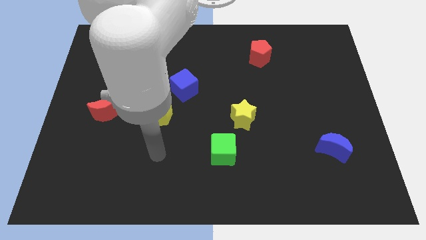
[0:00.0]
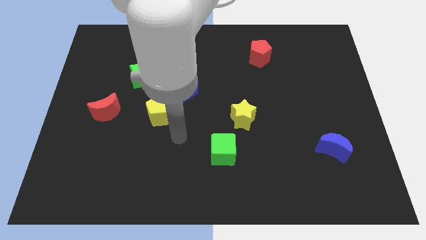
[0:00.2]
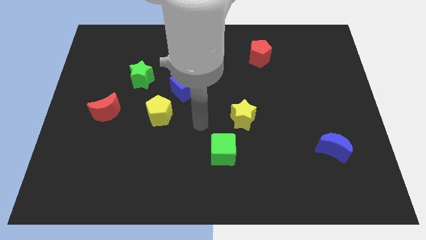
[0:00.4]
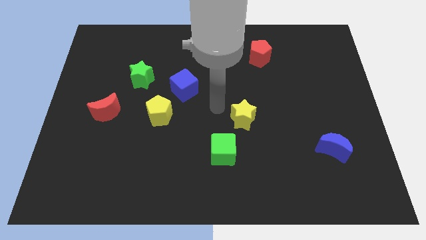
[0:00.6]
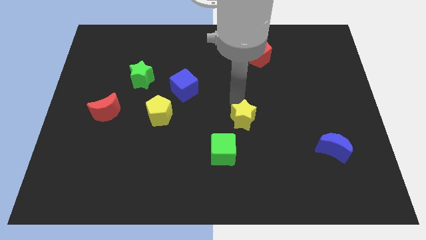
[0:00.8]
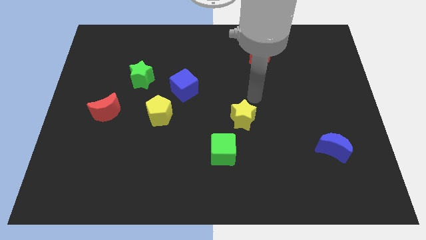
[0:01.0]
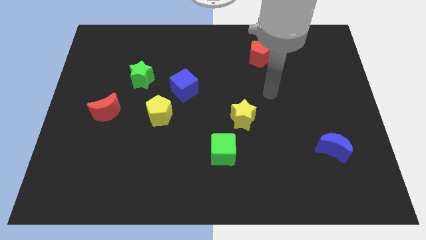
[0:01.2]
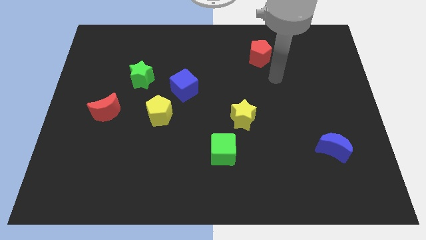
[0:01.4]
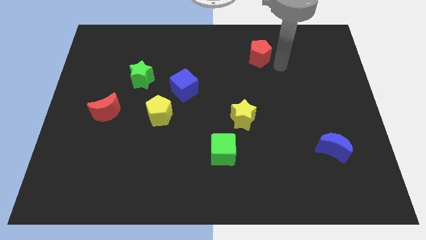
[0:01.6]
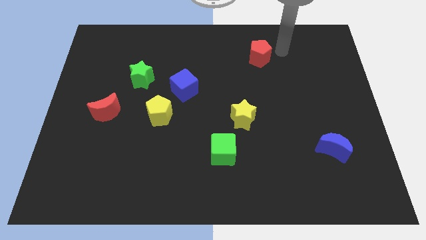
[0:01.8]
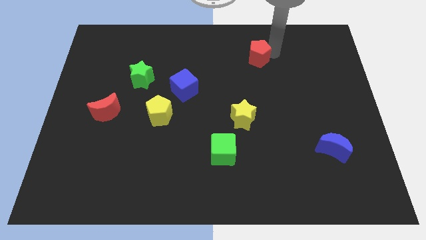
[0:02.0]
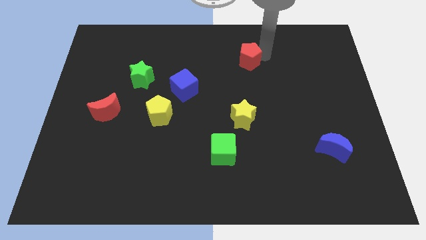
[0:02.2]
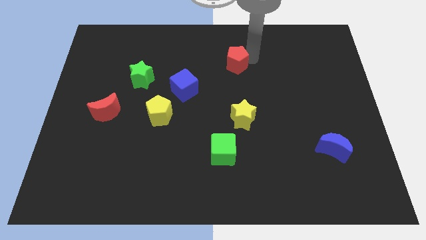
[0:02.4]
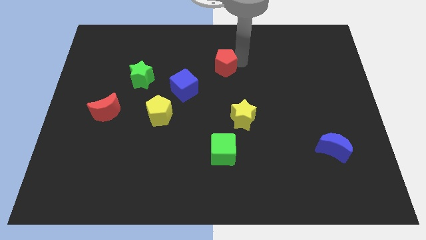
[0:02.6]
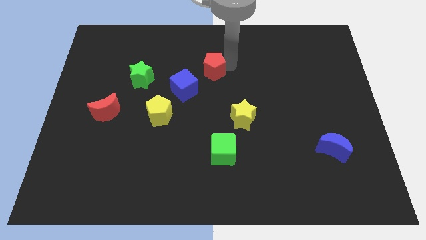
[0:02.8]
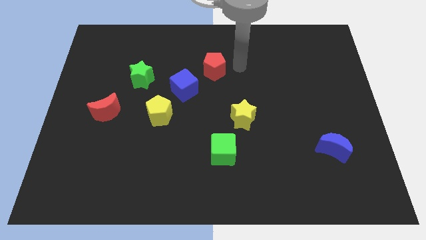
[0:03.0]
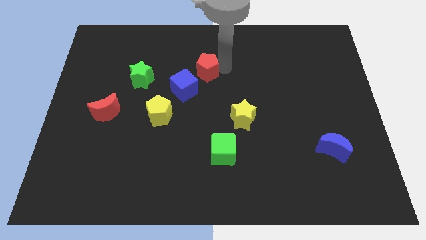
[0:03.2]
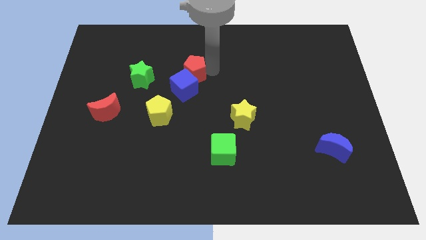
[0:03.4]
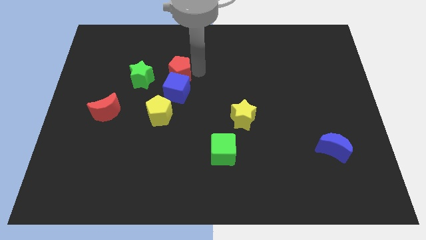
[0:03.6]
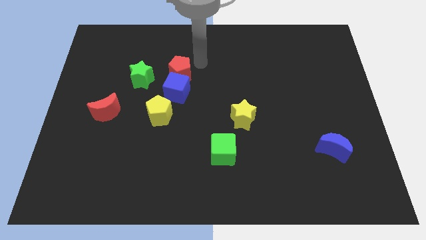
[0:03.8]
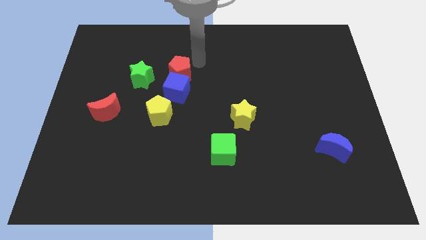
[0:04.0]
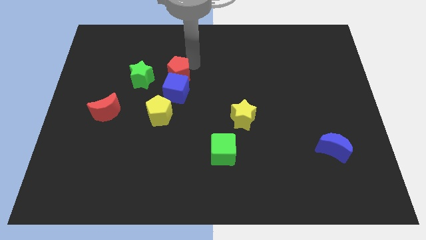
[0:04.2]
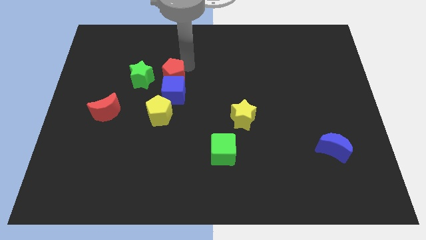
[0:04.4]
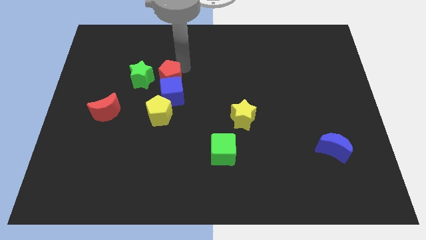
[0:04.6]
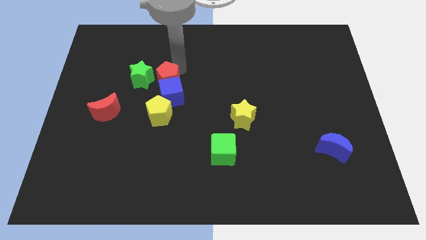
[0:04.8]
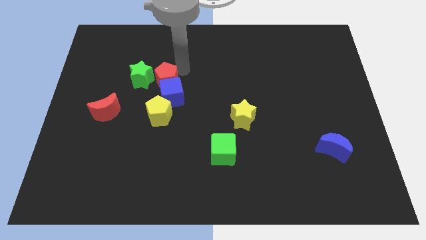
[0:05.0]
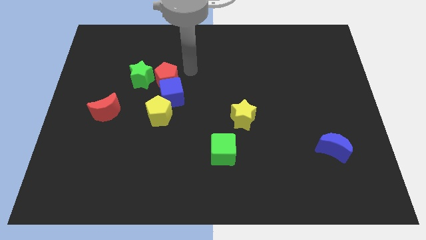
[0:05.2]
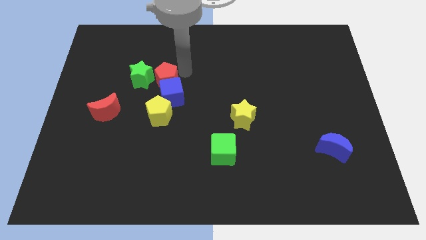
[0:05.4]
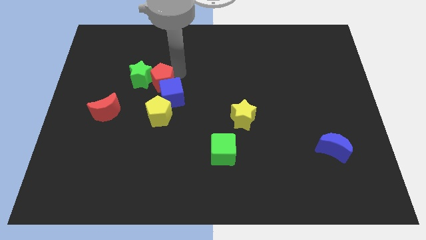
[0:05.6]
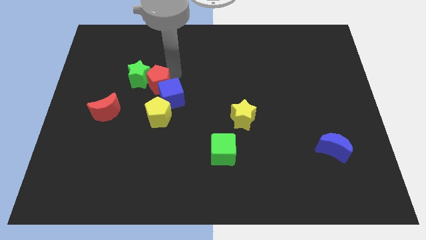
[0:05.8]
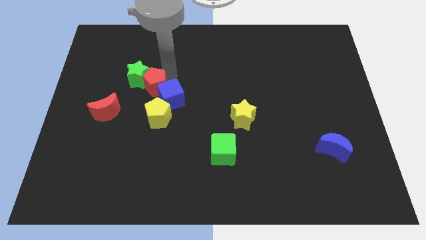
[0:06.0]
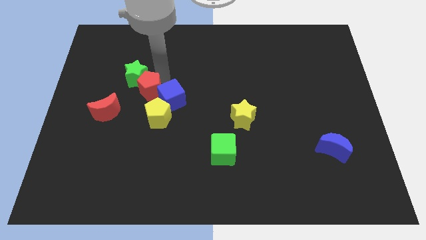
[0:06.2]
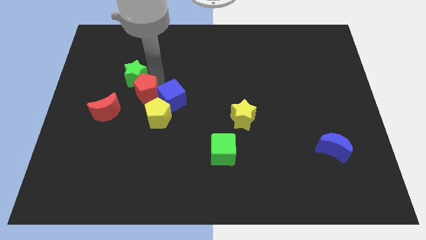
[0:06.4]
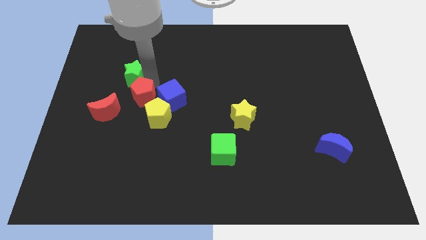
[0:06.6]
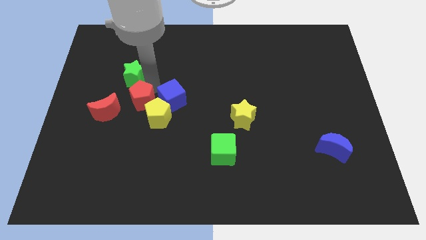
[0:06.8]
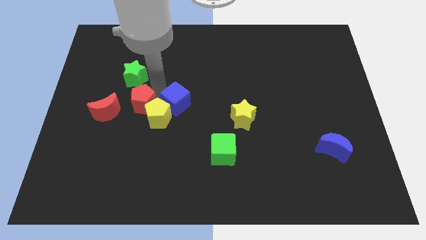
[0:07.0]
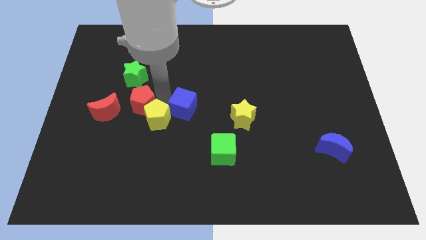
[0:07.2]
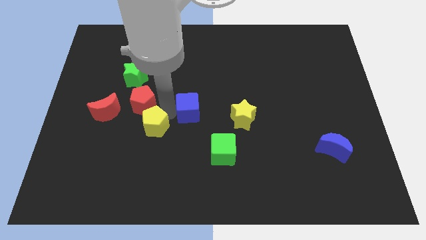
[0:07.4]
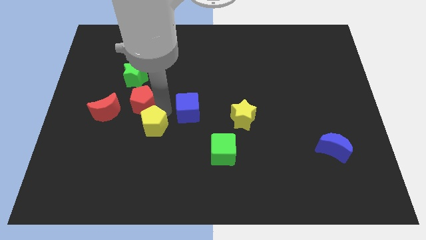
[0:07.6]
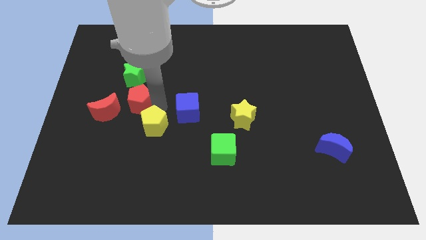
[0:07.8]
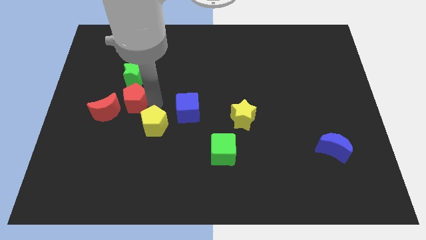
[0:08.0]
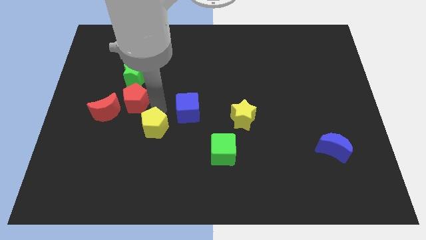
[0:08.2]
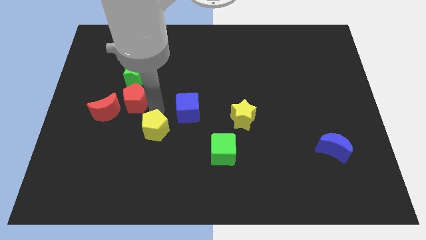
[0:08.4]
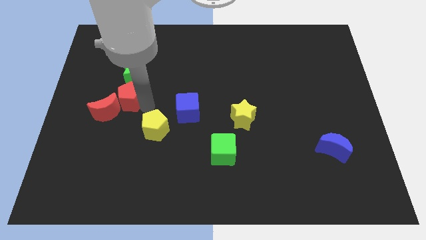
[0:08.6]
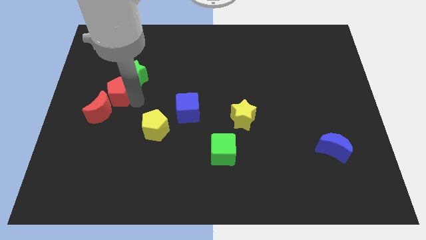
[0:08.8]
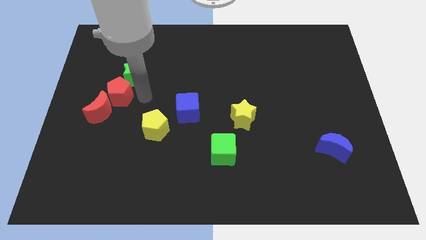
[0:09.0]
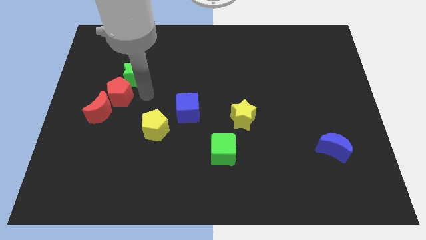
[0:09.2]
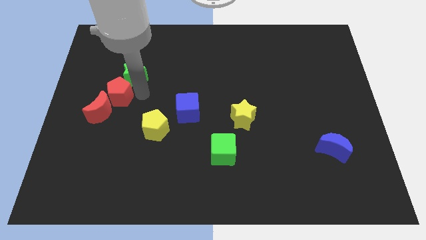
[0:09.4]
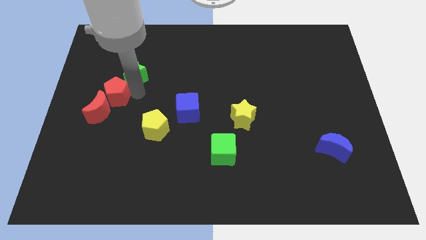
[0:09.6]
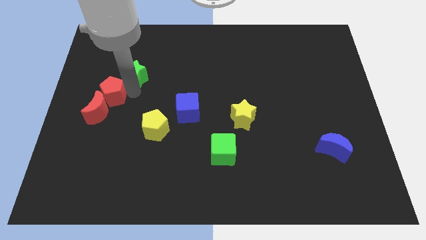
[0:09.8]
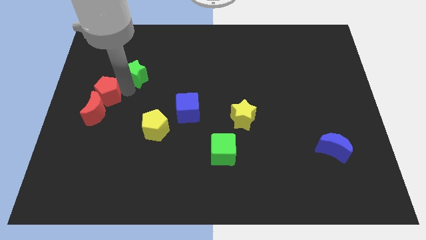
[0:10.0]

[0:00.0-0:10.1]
put the red pentagon to the center left

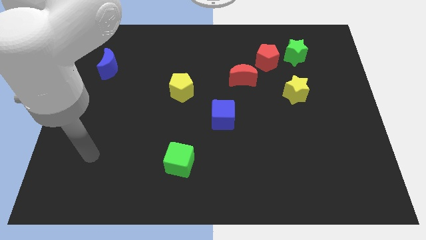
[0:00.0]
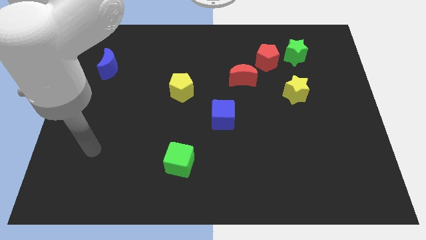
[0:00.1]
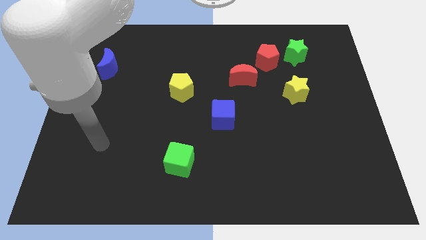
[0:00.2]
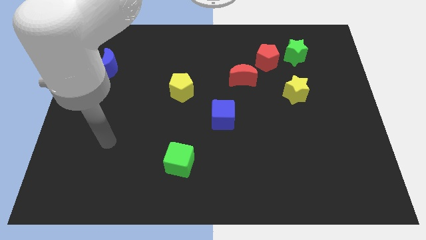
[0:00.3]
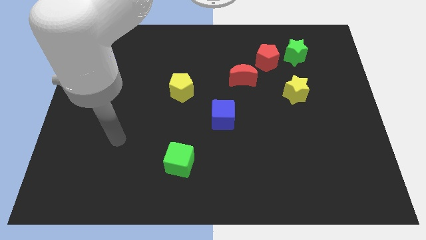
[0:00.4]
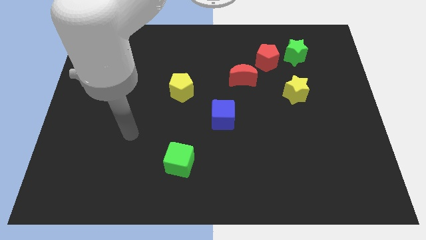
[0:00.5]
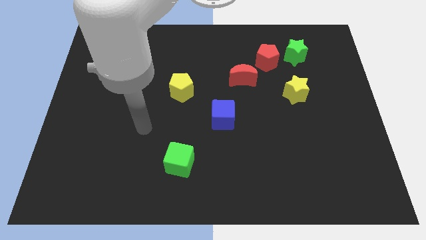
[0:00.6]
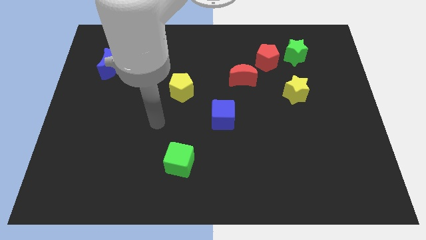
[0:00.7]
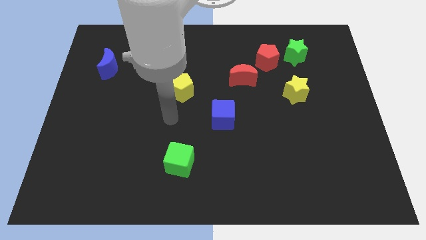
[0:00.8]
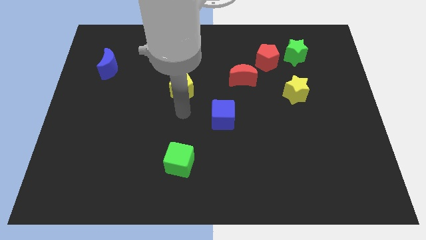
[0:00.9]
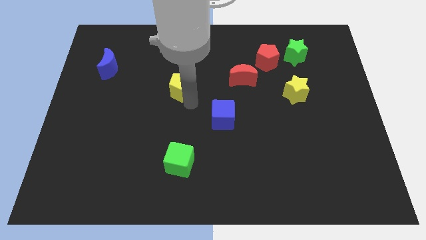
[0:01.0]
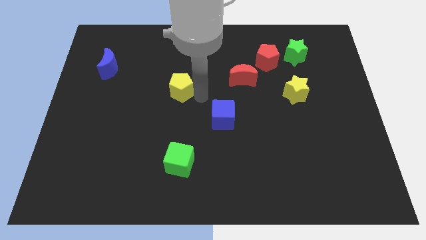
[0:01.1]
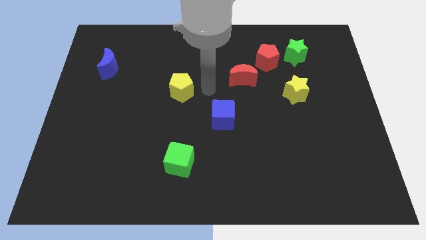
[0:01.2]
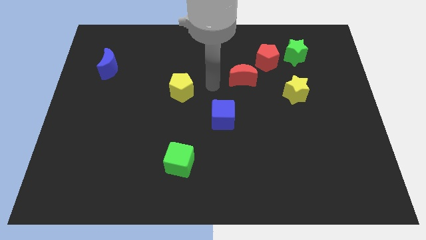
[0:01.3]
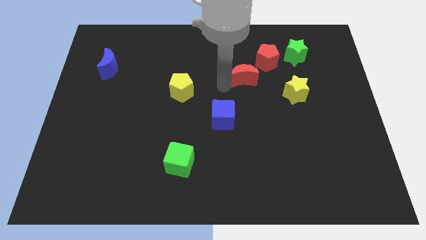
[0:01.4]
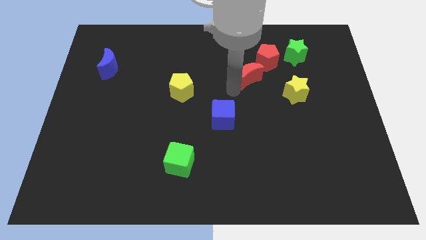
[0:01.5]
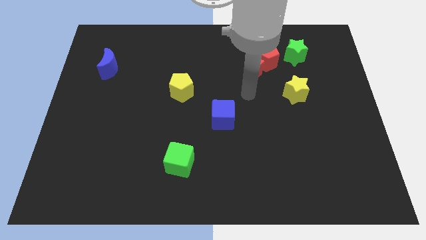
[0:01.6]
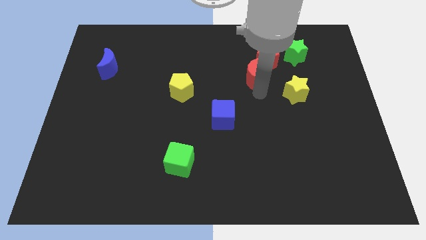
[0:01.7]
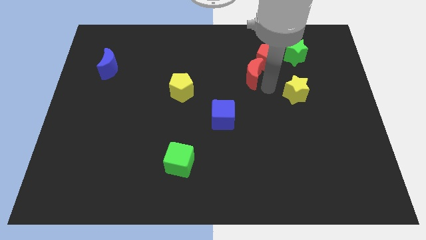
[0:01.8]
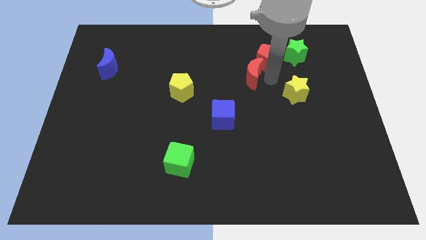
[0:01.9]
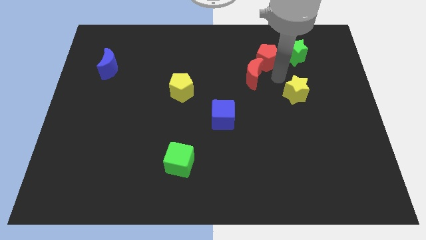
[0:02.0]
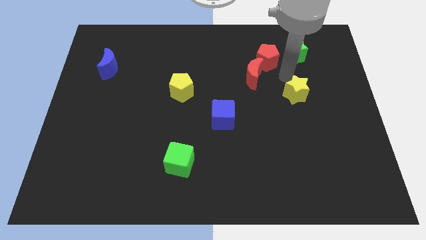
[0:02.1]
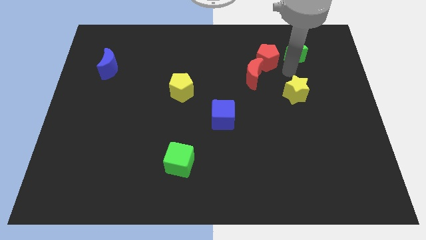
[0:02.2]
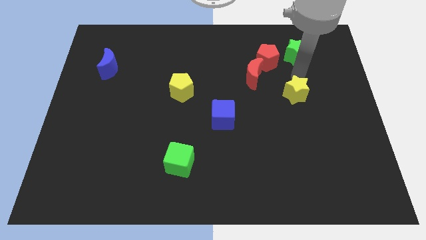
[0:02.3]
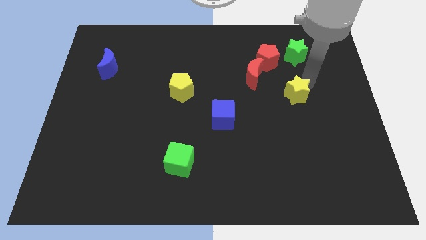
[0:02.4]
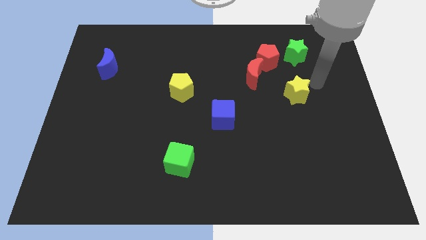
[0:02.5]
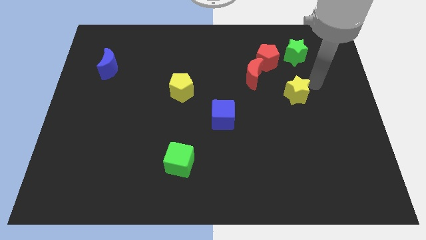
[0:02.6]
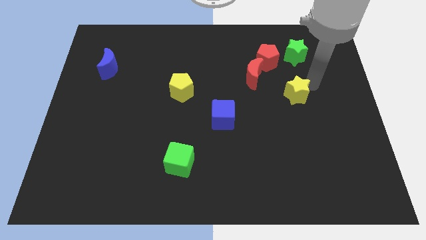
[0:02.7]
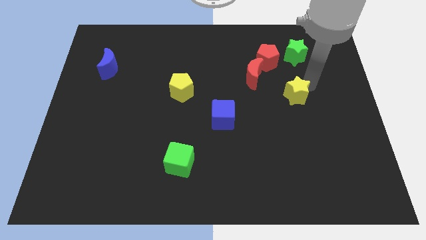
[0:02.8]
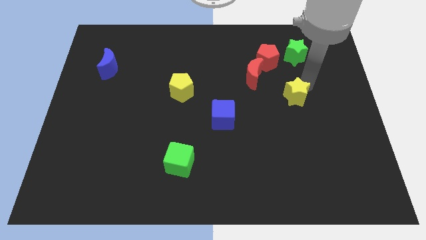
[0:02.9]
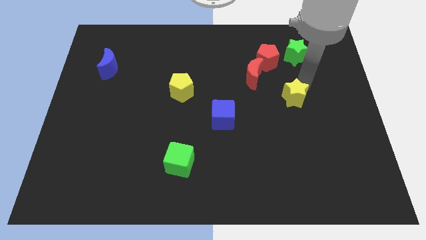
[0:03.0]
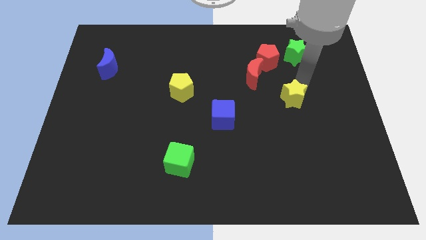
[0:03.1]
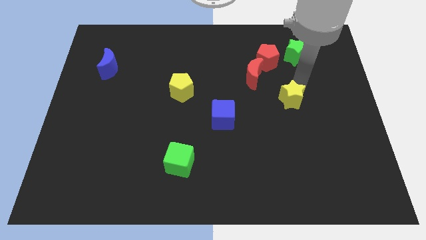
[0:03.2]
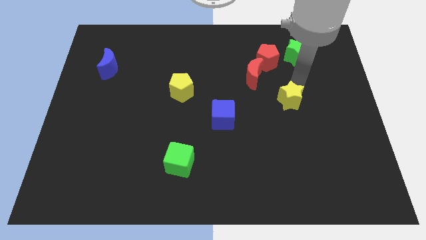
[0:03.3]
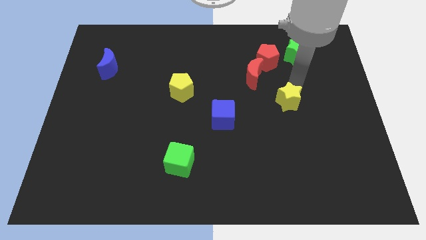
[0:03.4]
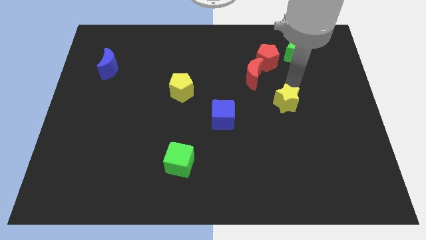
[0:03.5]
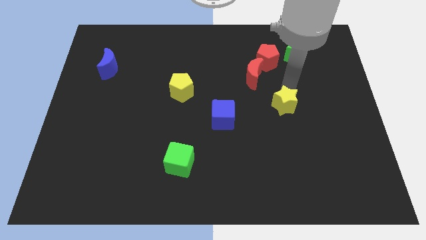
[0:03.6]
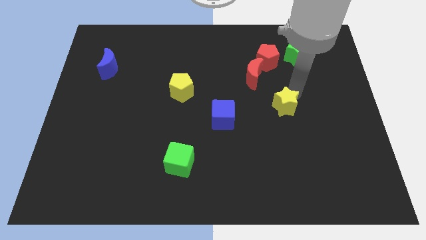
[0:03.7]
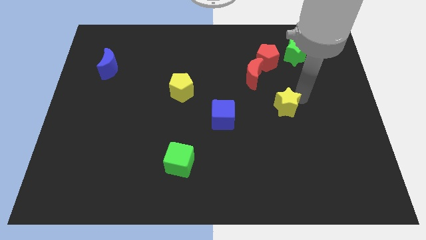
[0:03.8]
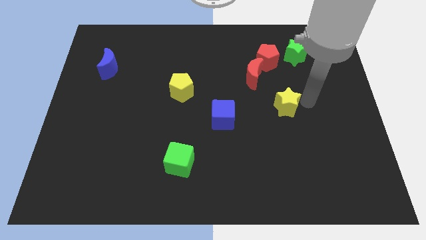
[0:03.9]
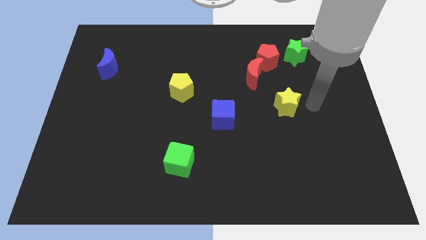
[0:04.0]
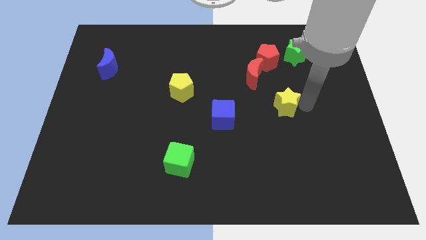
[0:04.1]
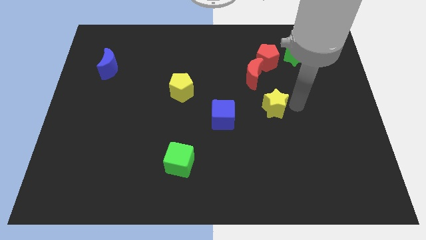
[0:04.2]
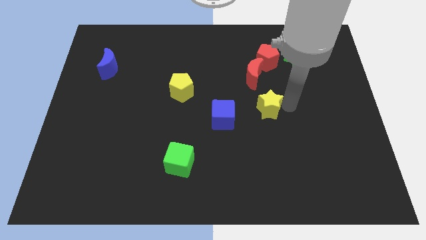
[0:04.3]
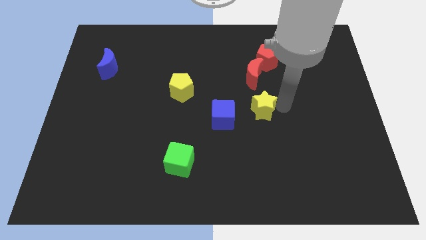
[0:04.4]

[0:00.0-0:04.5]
push the yellow star to the middle of the board
